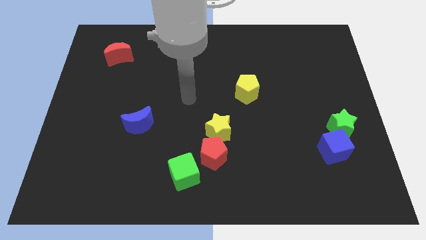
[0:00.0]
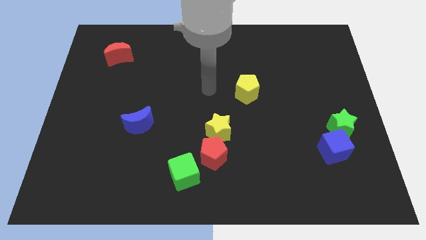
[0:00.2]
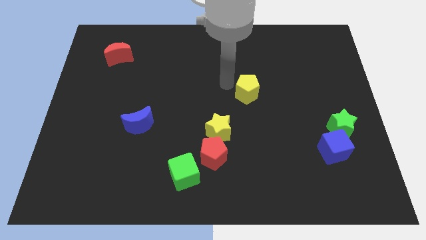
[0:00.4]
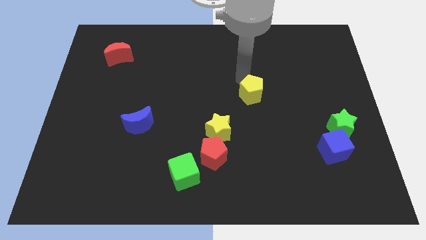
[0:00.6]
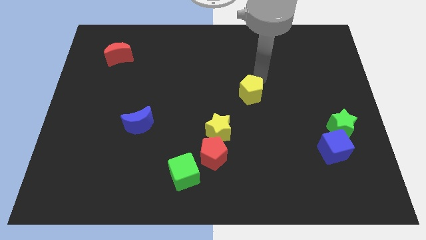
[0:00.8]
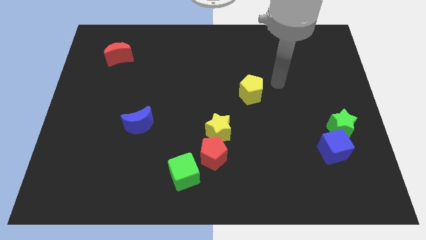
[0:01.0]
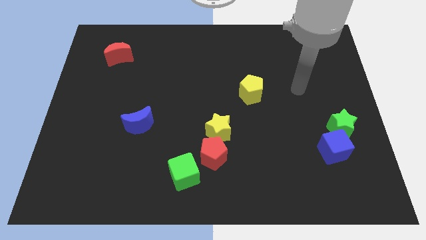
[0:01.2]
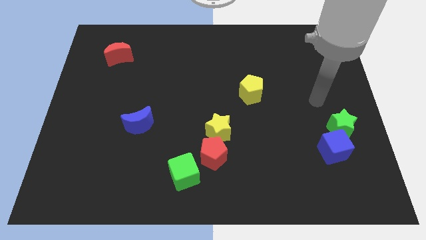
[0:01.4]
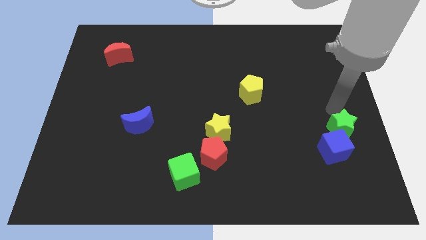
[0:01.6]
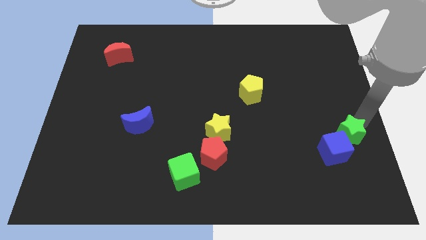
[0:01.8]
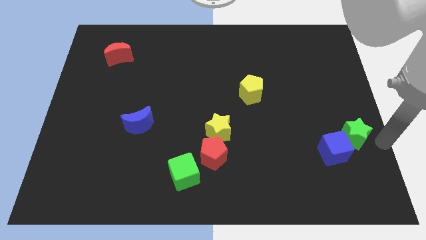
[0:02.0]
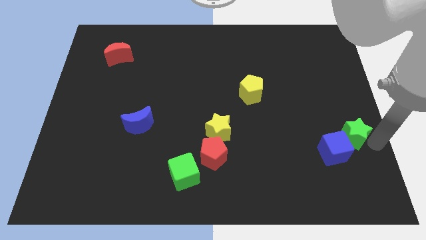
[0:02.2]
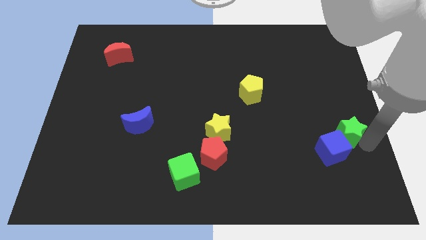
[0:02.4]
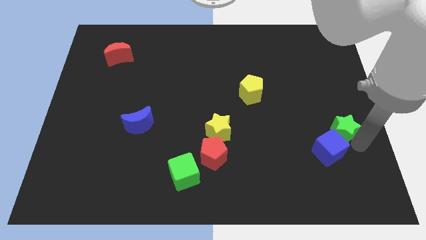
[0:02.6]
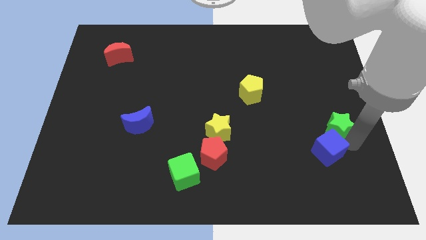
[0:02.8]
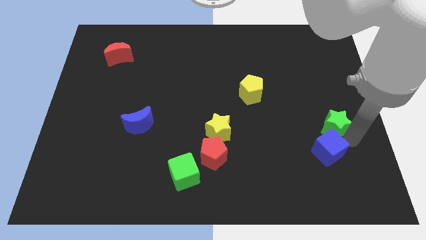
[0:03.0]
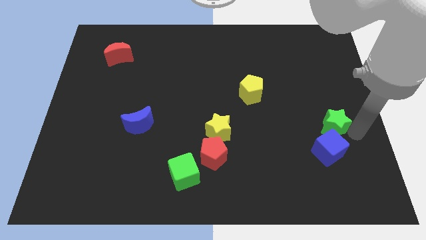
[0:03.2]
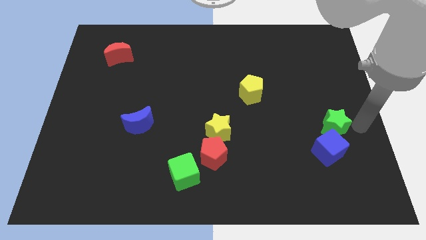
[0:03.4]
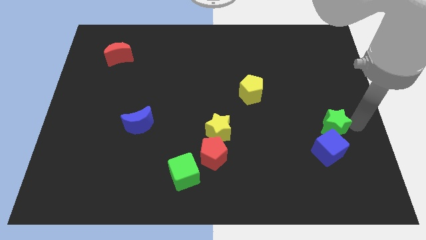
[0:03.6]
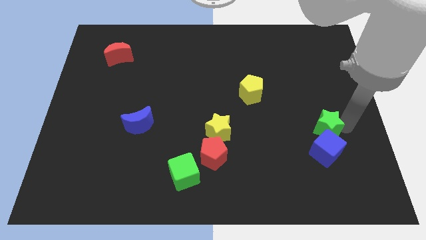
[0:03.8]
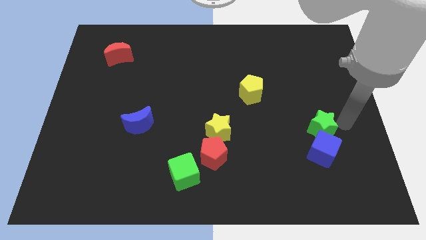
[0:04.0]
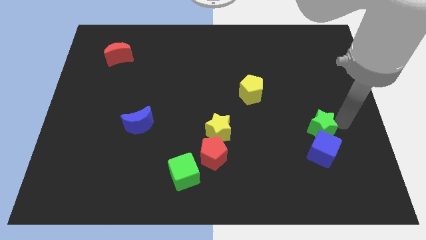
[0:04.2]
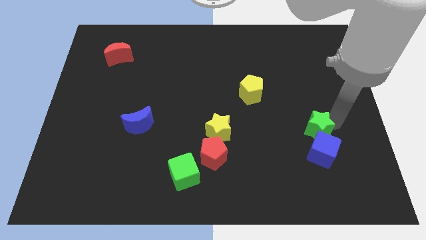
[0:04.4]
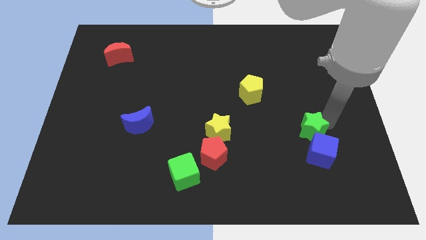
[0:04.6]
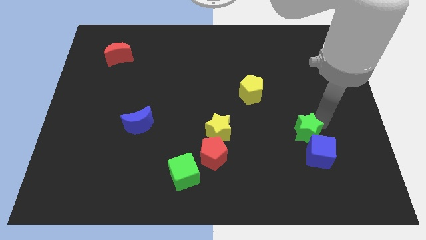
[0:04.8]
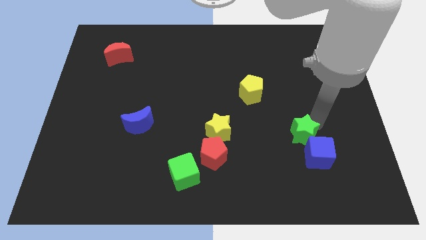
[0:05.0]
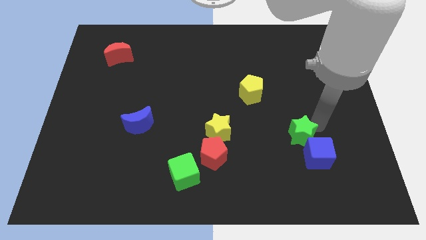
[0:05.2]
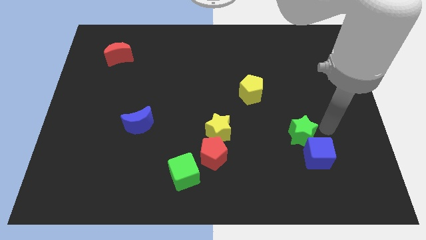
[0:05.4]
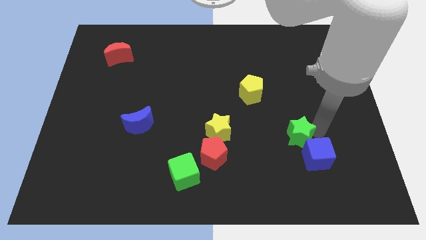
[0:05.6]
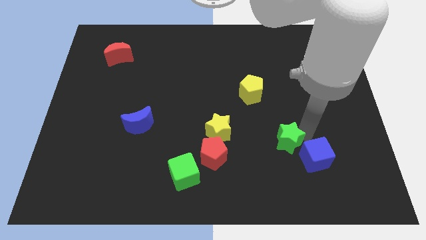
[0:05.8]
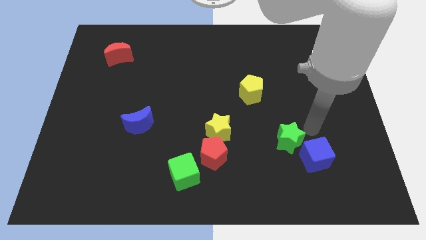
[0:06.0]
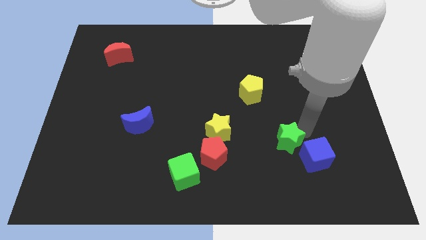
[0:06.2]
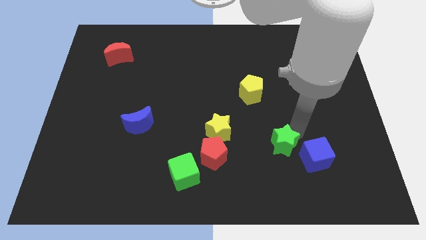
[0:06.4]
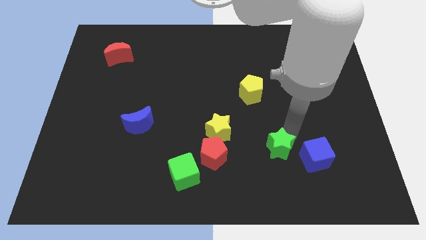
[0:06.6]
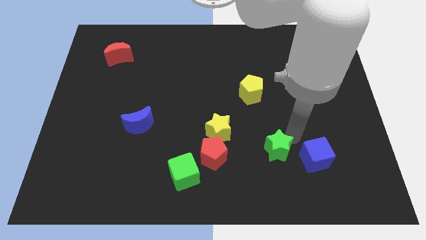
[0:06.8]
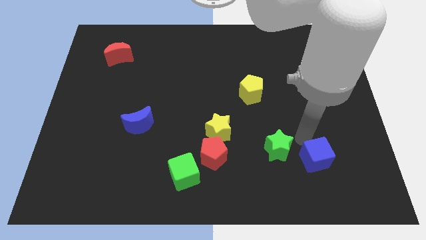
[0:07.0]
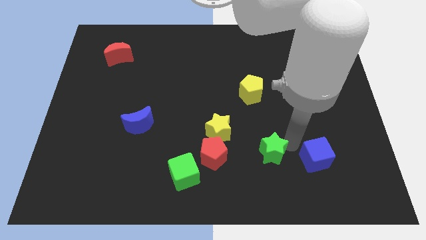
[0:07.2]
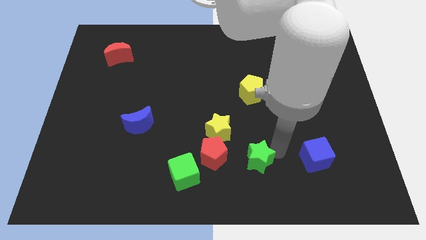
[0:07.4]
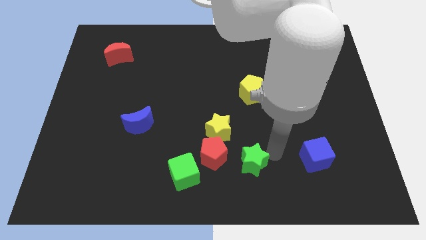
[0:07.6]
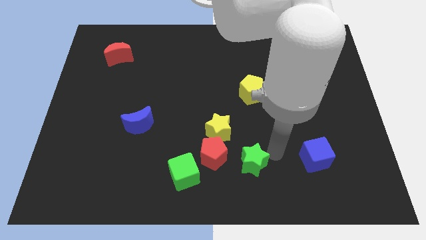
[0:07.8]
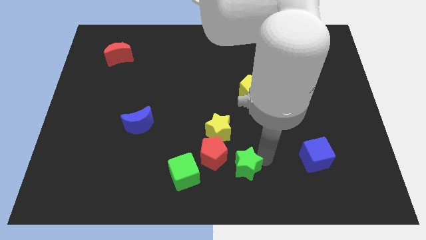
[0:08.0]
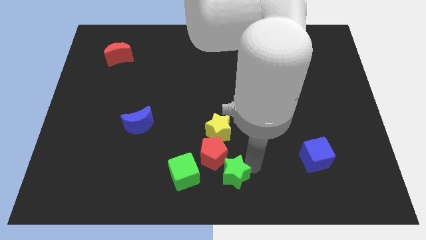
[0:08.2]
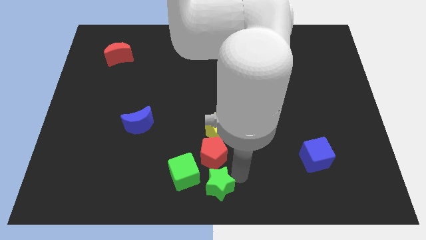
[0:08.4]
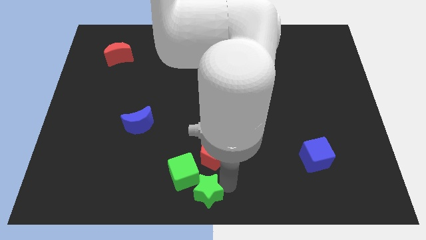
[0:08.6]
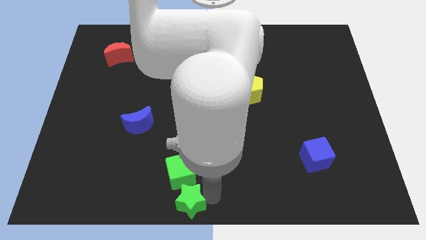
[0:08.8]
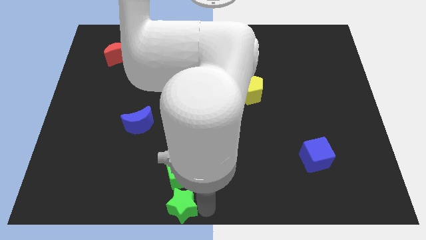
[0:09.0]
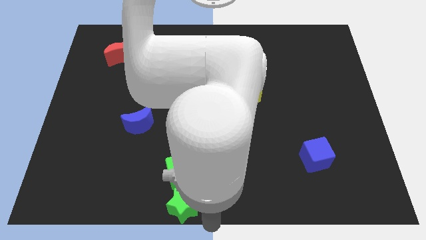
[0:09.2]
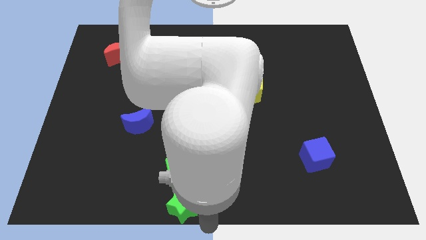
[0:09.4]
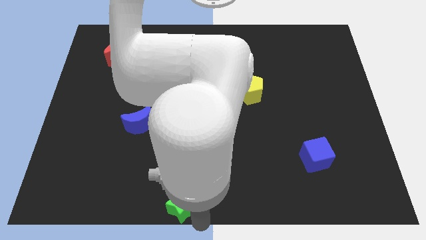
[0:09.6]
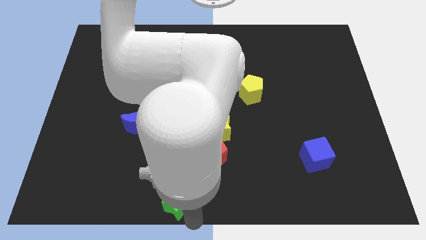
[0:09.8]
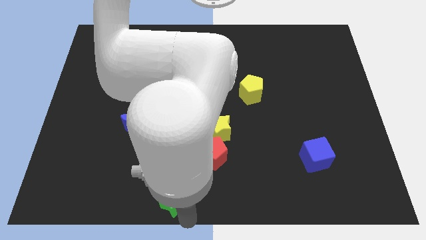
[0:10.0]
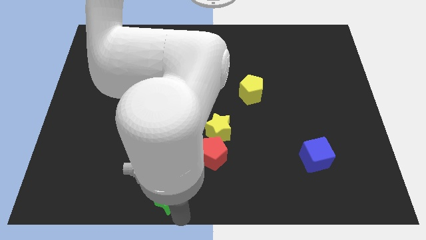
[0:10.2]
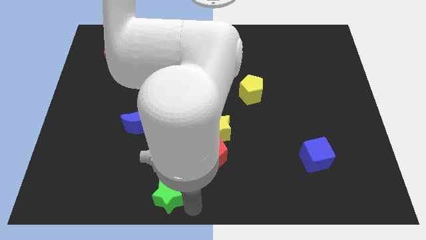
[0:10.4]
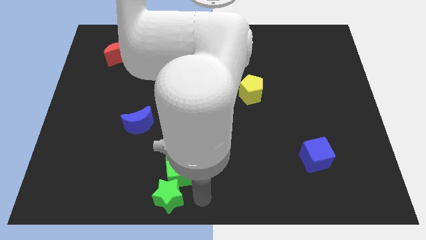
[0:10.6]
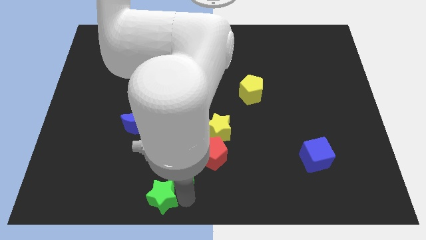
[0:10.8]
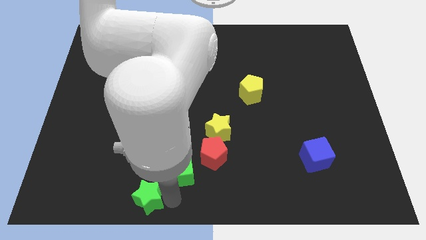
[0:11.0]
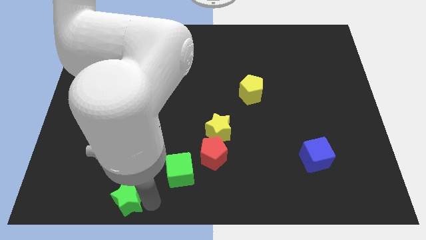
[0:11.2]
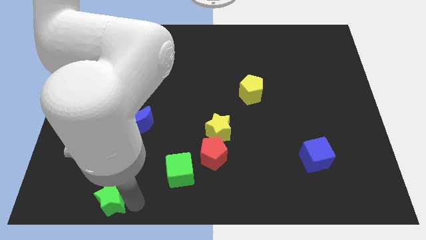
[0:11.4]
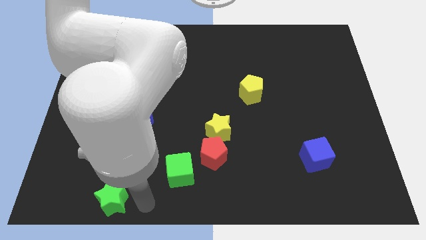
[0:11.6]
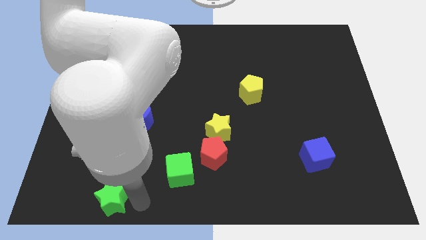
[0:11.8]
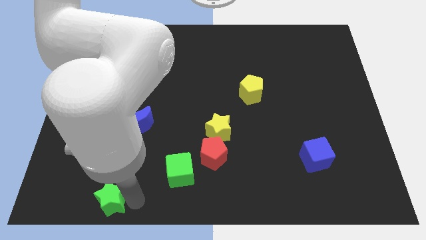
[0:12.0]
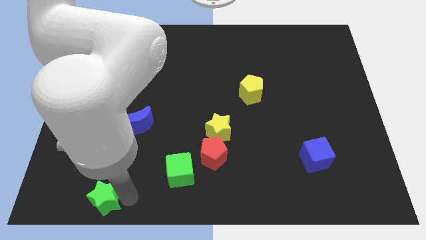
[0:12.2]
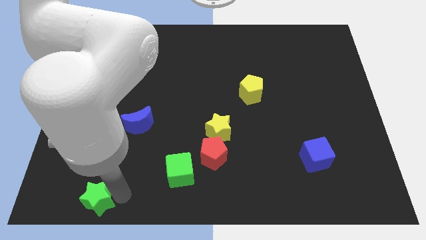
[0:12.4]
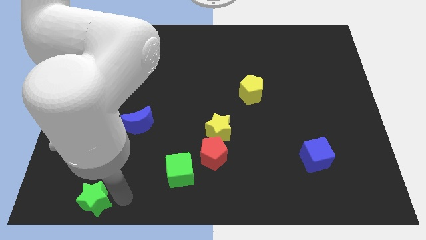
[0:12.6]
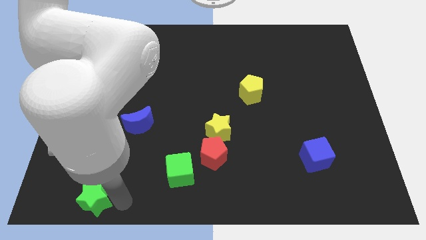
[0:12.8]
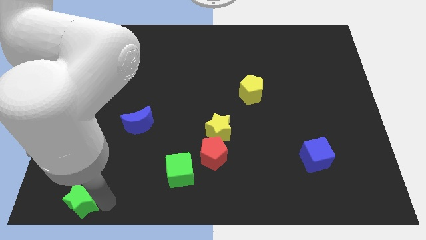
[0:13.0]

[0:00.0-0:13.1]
move the green star to the bottom left of the board
